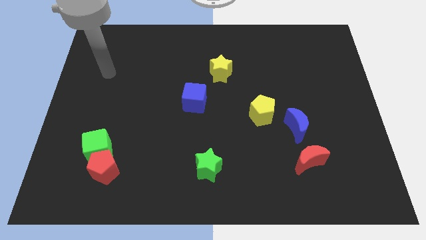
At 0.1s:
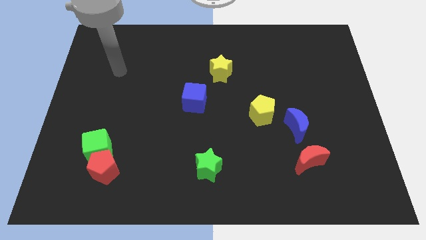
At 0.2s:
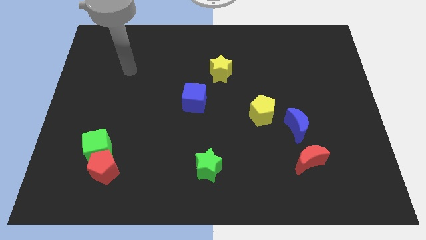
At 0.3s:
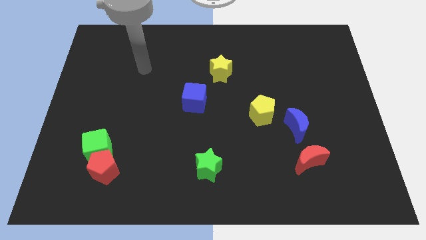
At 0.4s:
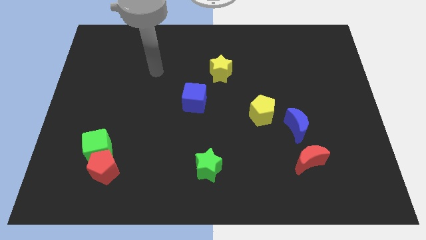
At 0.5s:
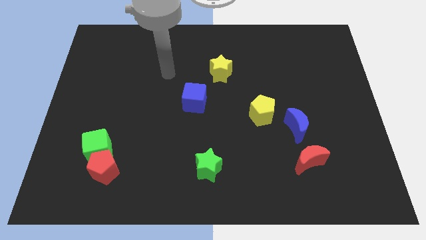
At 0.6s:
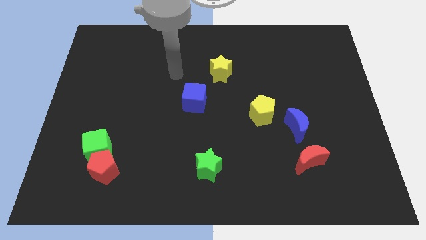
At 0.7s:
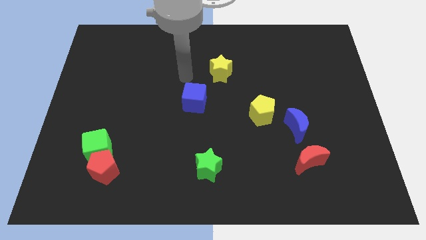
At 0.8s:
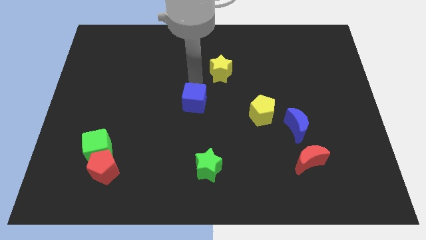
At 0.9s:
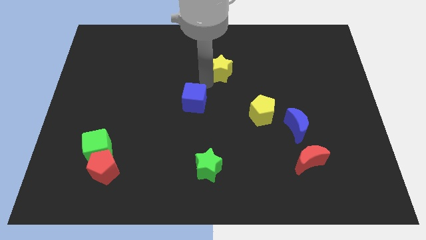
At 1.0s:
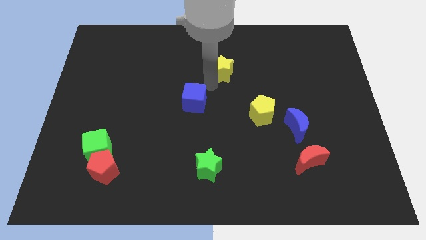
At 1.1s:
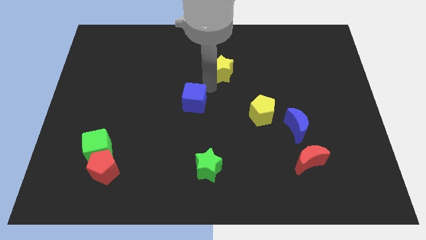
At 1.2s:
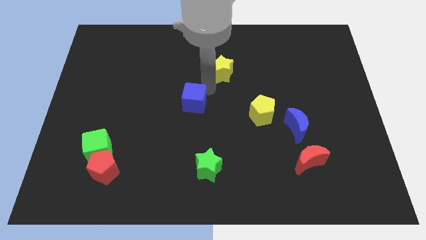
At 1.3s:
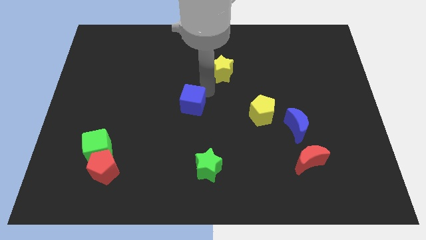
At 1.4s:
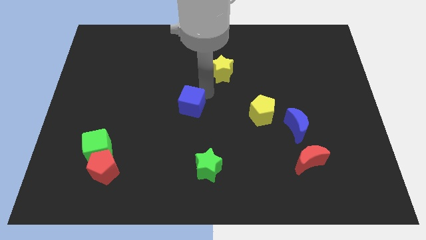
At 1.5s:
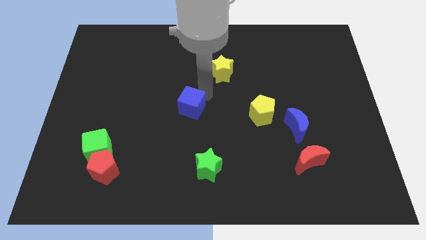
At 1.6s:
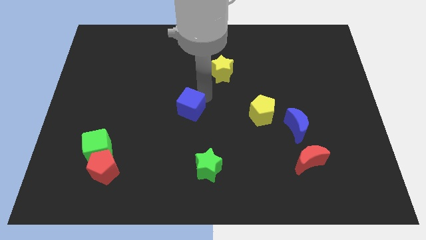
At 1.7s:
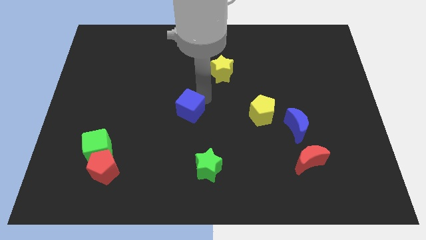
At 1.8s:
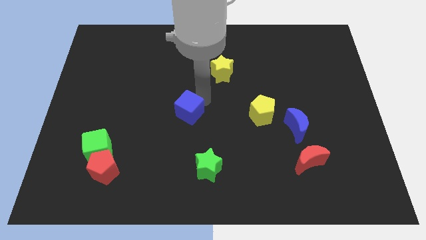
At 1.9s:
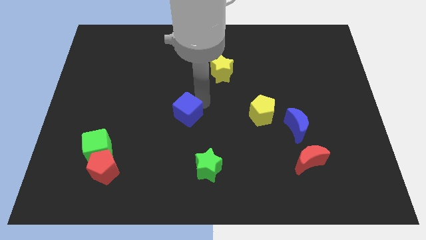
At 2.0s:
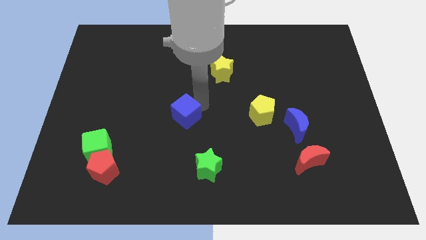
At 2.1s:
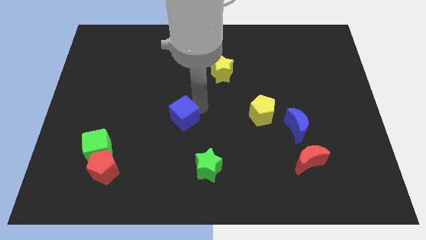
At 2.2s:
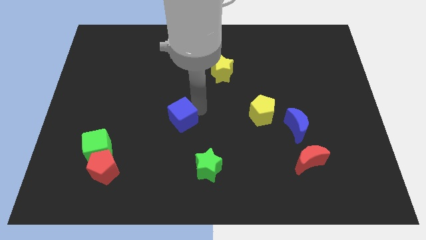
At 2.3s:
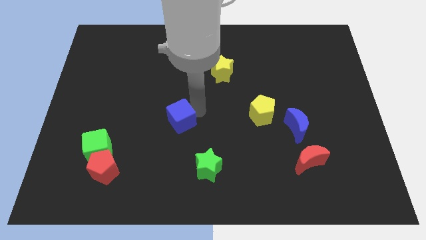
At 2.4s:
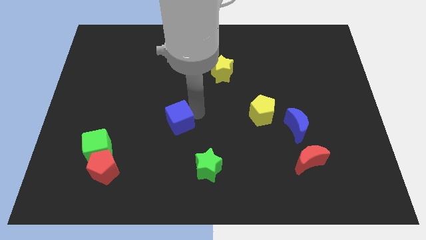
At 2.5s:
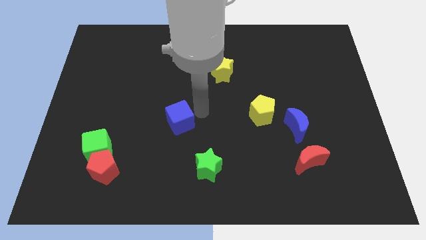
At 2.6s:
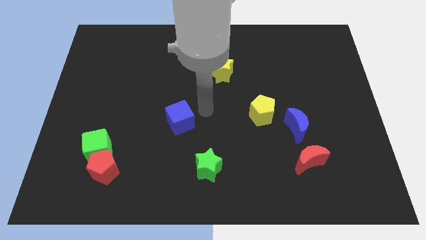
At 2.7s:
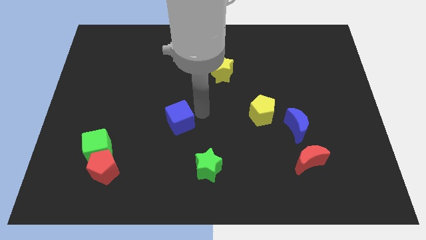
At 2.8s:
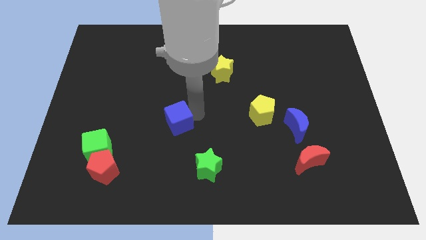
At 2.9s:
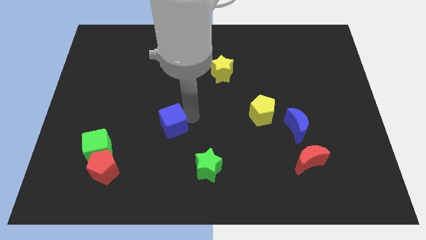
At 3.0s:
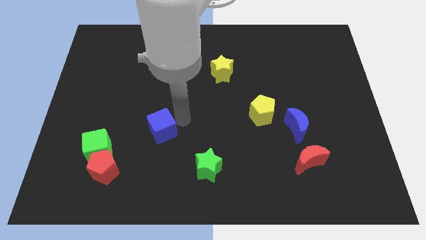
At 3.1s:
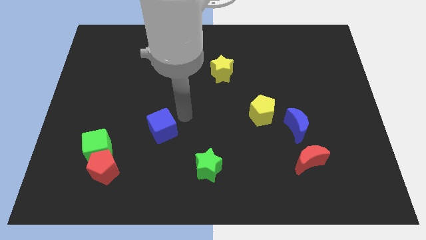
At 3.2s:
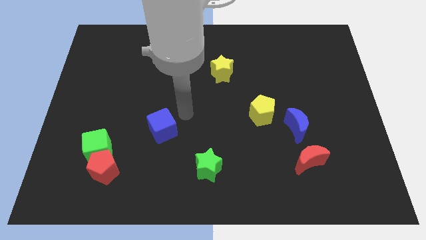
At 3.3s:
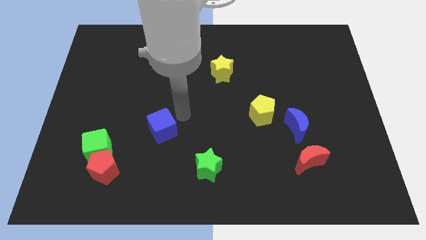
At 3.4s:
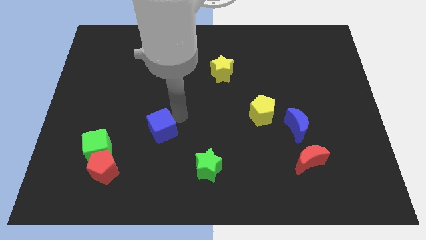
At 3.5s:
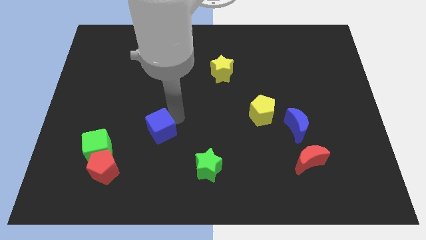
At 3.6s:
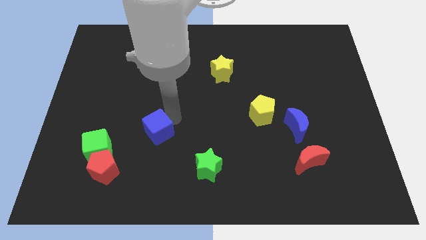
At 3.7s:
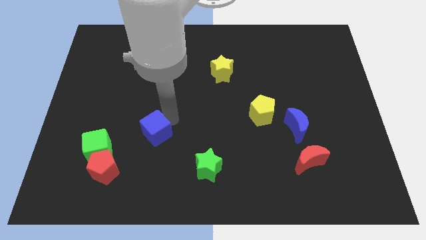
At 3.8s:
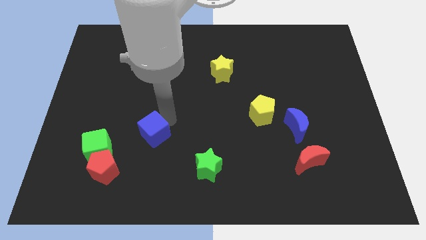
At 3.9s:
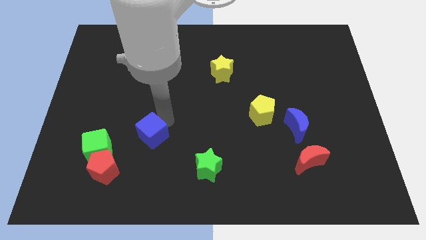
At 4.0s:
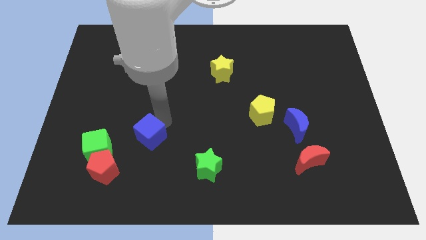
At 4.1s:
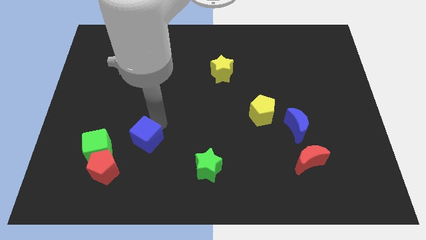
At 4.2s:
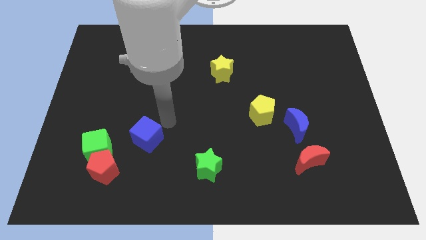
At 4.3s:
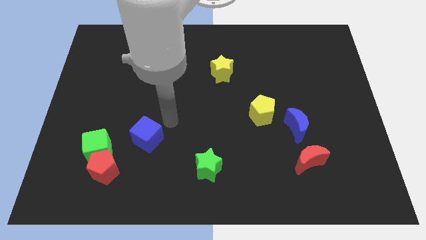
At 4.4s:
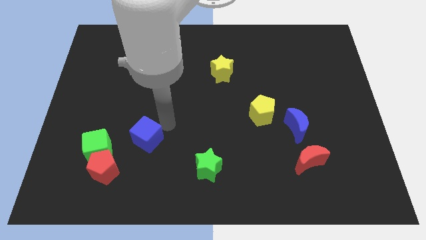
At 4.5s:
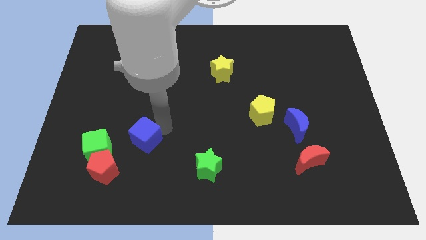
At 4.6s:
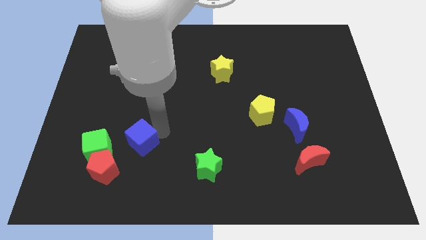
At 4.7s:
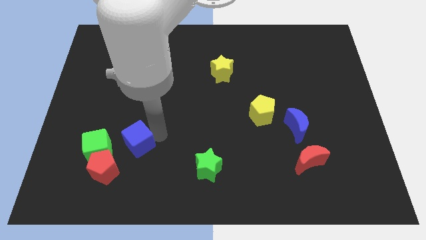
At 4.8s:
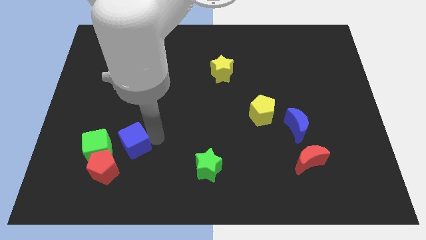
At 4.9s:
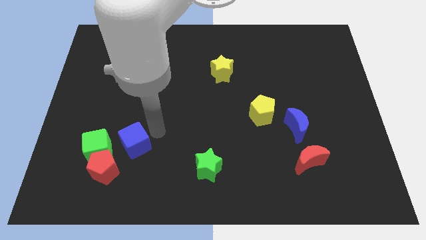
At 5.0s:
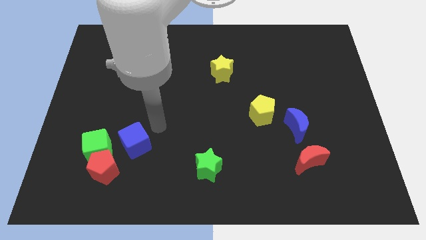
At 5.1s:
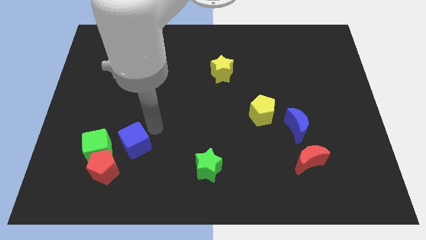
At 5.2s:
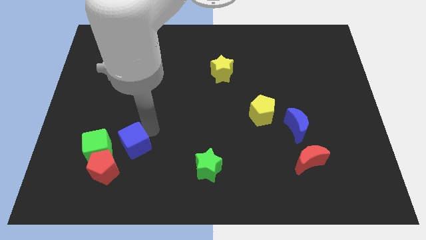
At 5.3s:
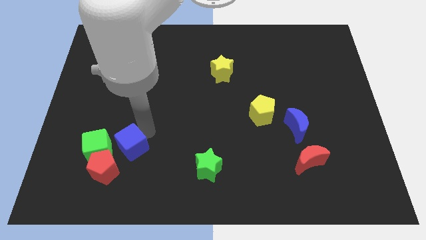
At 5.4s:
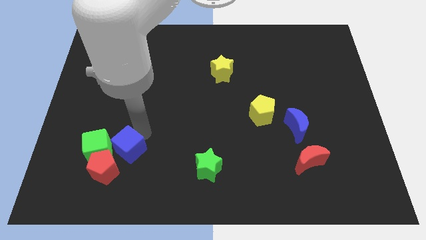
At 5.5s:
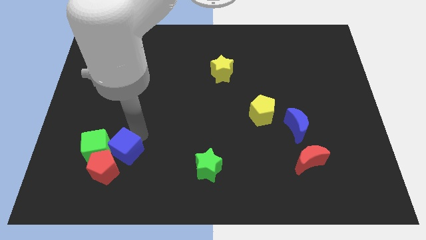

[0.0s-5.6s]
push the blue cube close to the red pentagon

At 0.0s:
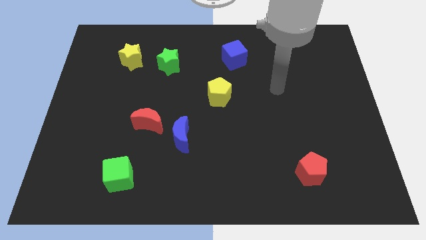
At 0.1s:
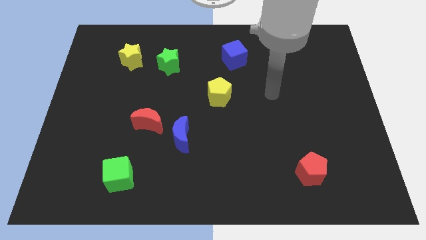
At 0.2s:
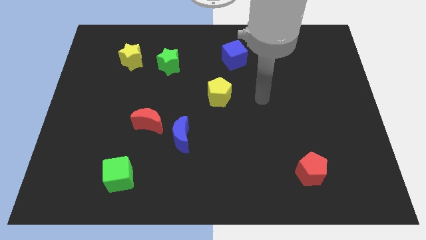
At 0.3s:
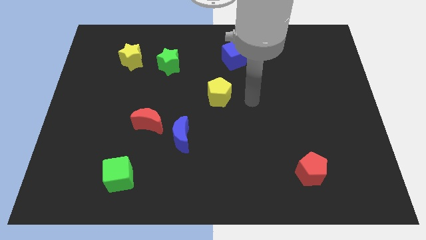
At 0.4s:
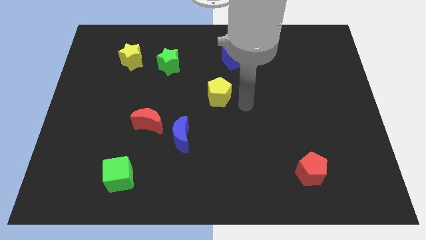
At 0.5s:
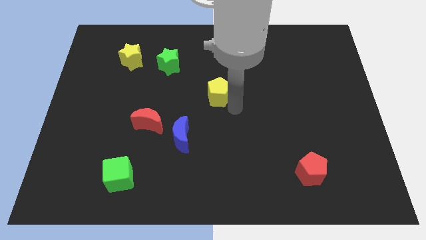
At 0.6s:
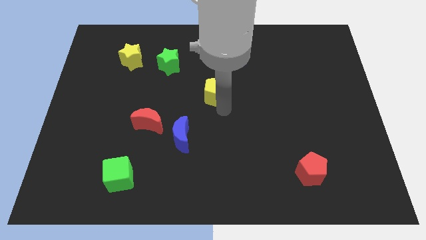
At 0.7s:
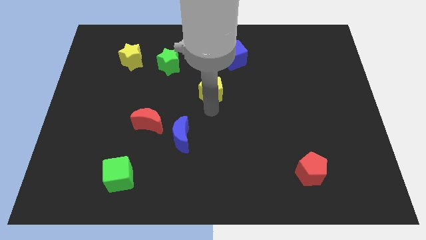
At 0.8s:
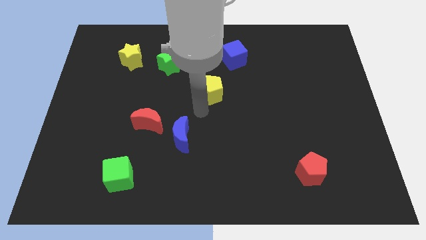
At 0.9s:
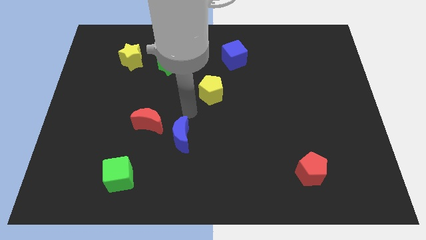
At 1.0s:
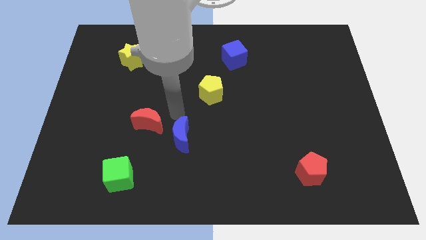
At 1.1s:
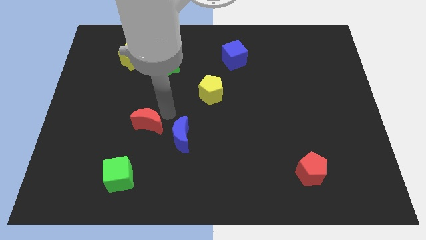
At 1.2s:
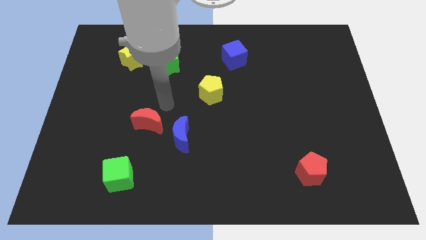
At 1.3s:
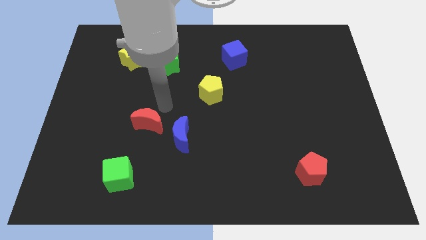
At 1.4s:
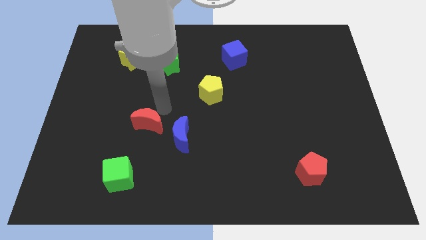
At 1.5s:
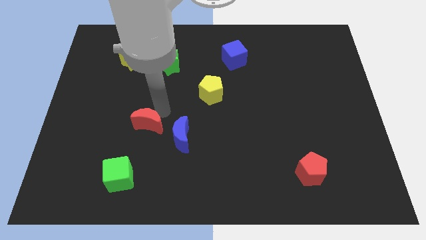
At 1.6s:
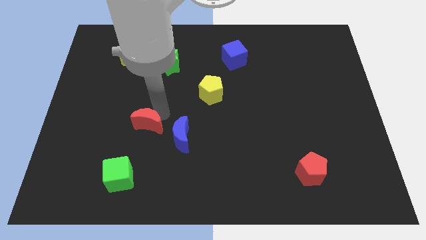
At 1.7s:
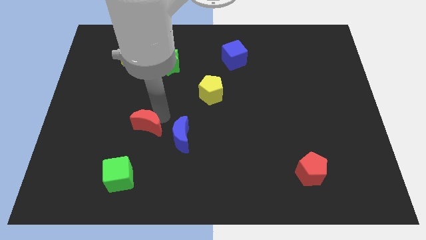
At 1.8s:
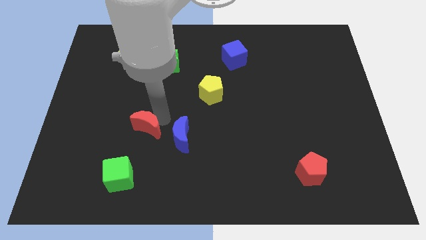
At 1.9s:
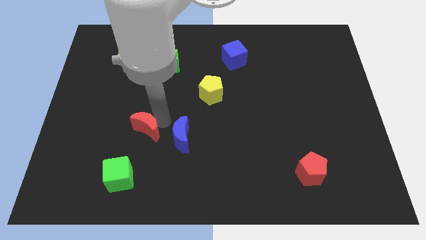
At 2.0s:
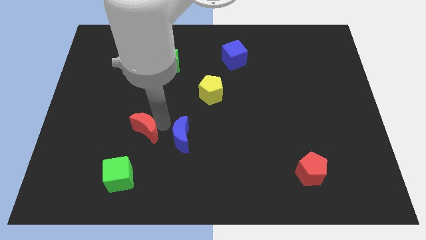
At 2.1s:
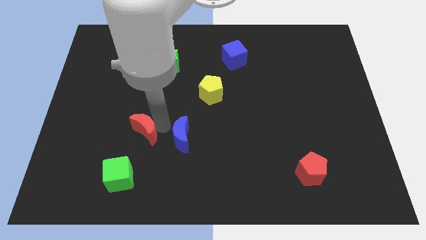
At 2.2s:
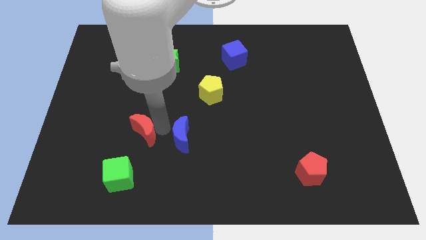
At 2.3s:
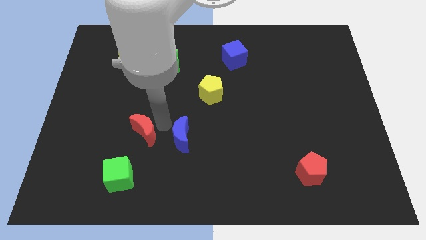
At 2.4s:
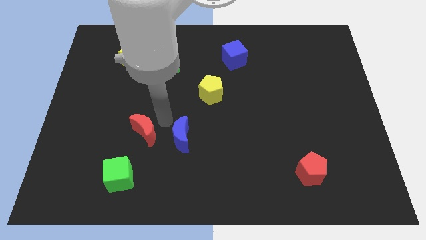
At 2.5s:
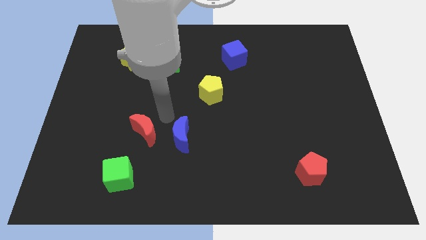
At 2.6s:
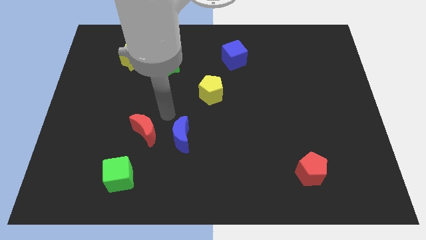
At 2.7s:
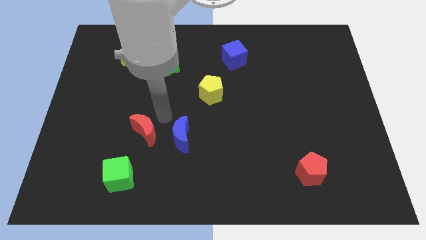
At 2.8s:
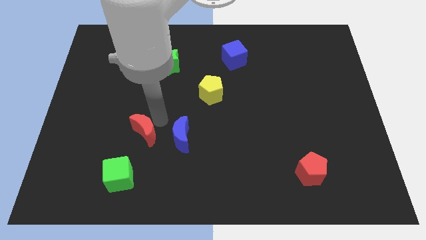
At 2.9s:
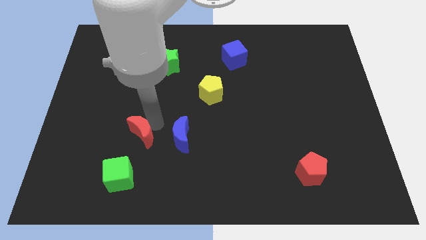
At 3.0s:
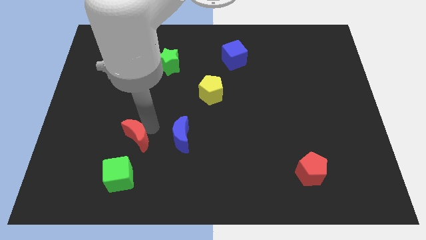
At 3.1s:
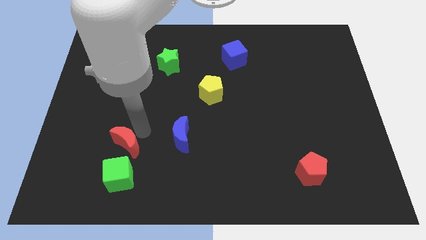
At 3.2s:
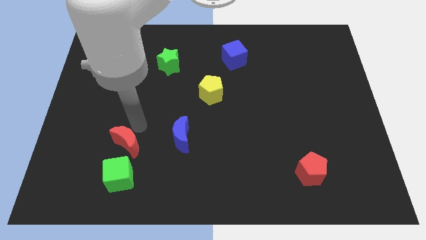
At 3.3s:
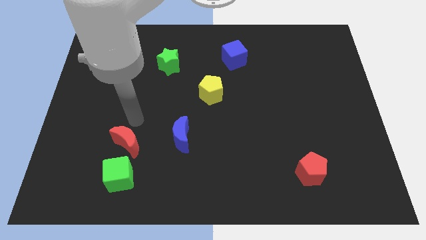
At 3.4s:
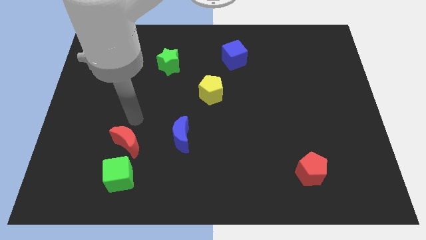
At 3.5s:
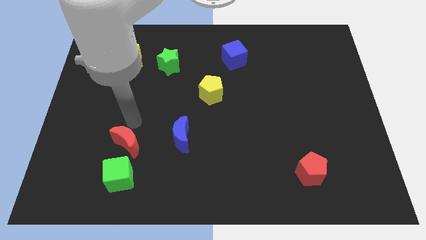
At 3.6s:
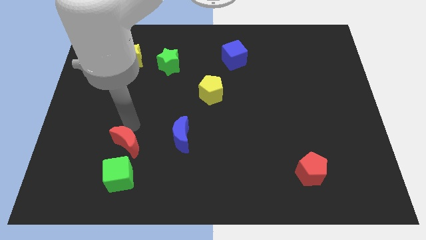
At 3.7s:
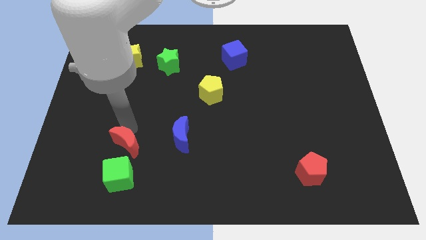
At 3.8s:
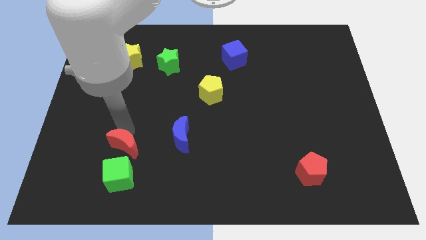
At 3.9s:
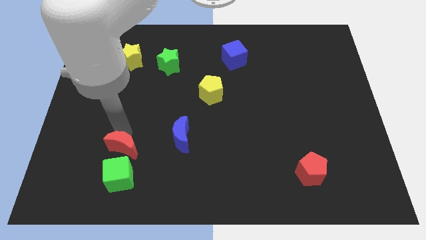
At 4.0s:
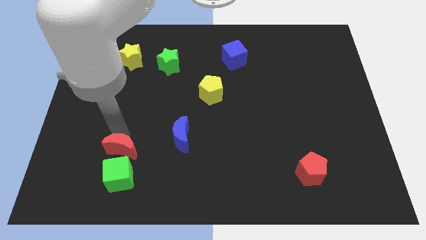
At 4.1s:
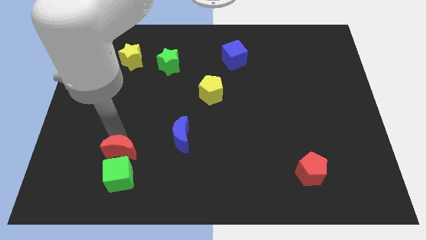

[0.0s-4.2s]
push the red moon next to the green cube
